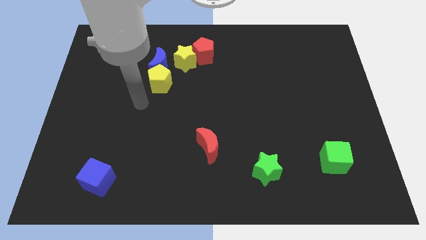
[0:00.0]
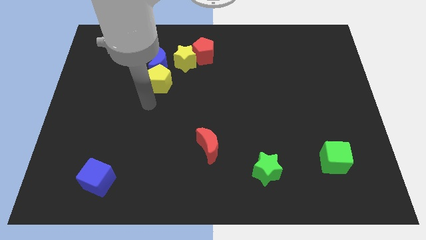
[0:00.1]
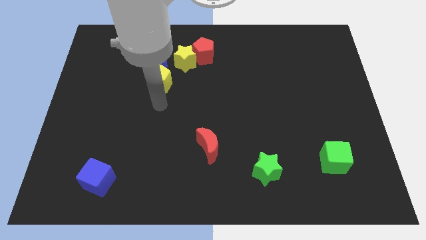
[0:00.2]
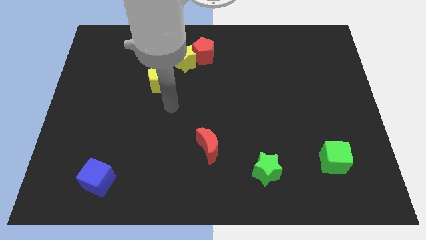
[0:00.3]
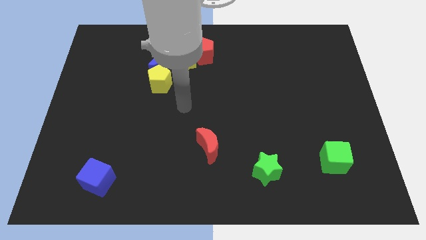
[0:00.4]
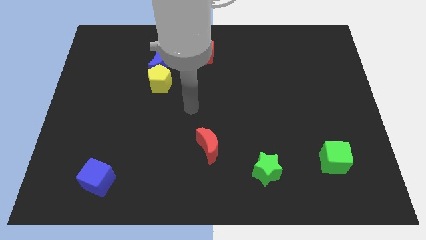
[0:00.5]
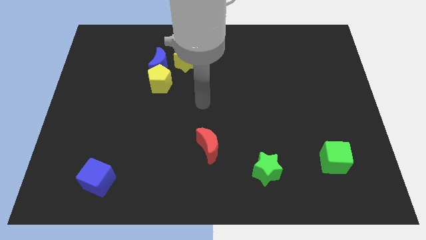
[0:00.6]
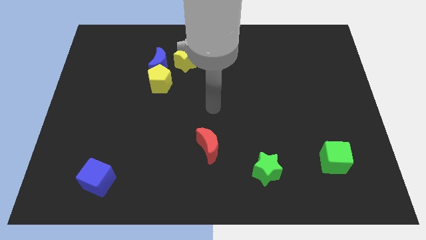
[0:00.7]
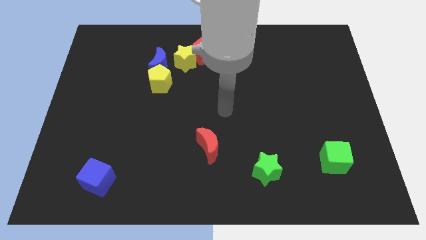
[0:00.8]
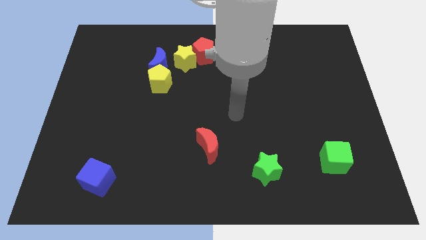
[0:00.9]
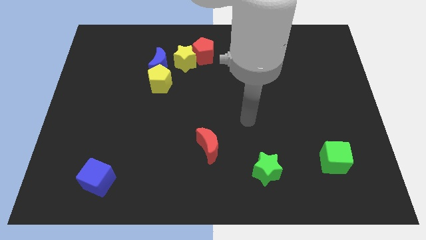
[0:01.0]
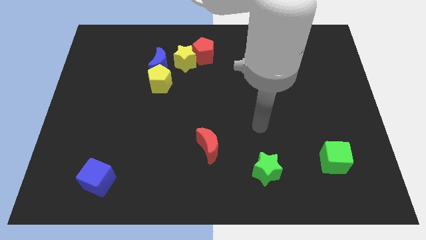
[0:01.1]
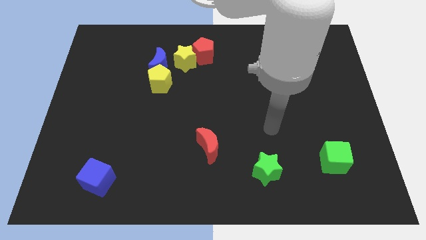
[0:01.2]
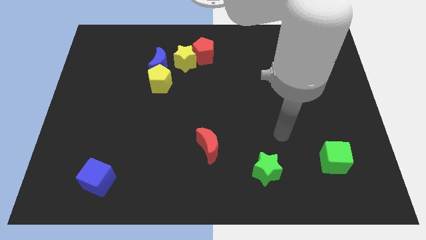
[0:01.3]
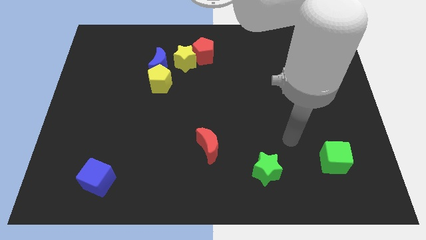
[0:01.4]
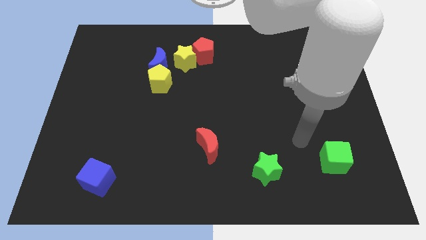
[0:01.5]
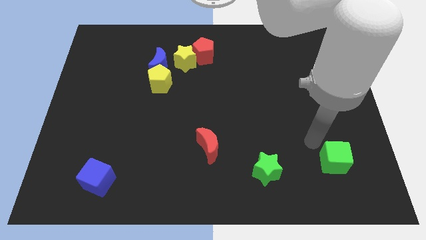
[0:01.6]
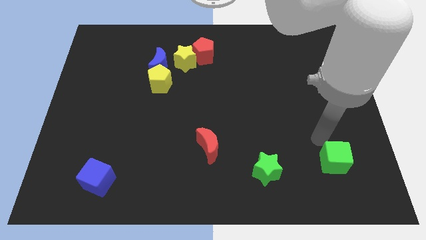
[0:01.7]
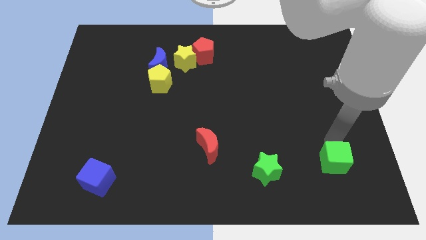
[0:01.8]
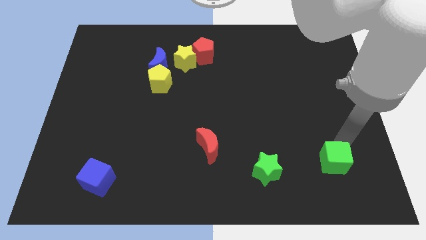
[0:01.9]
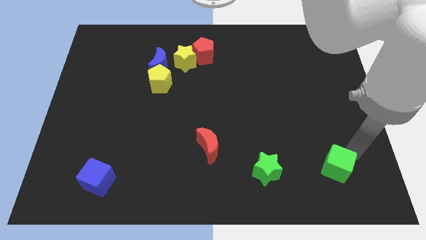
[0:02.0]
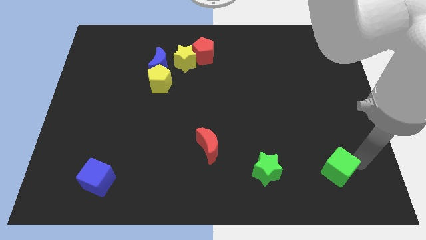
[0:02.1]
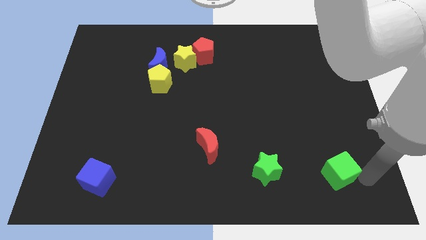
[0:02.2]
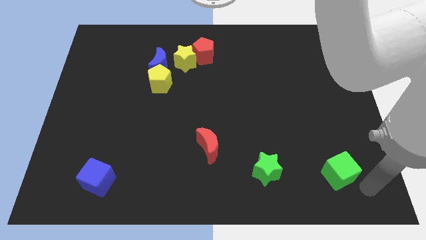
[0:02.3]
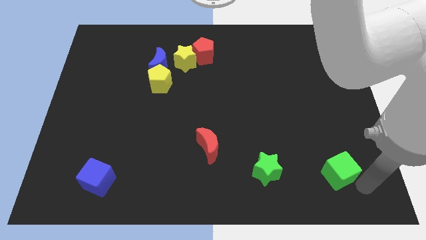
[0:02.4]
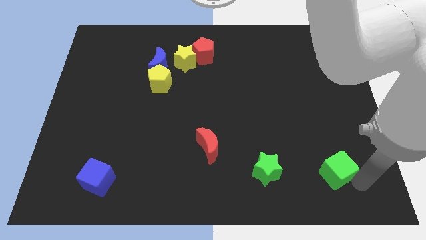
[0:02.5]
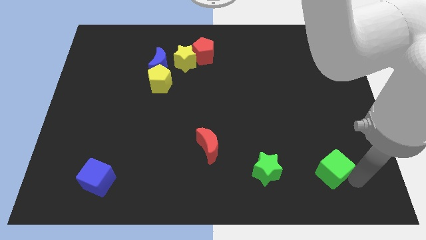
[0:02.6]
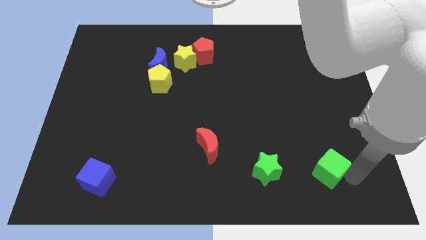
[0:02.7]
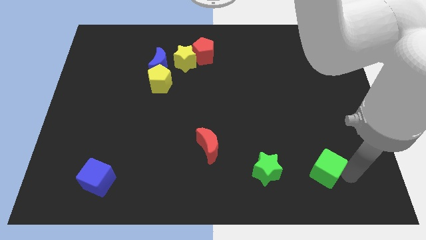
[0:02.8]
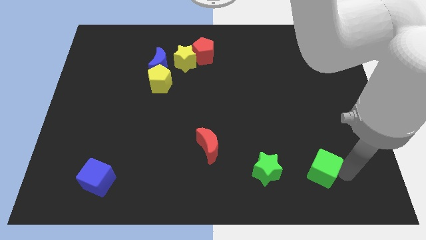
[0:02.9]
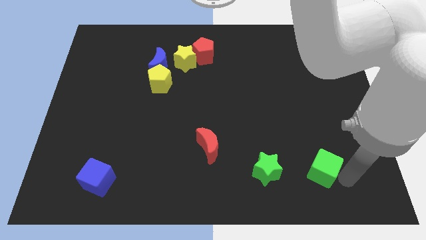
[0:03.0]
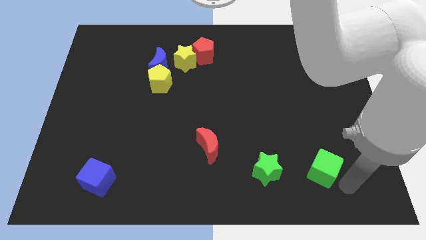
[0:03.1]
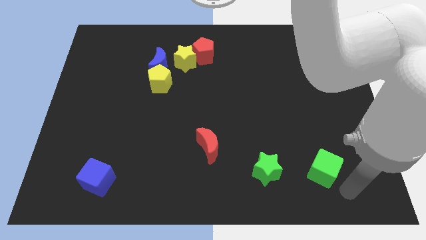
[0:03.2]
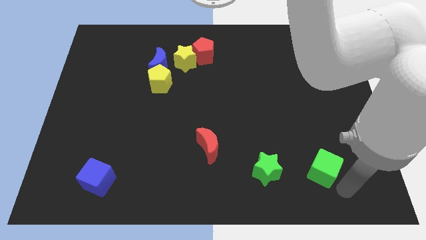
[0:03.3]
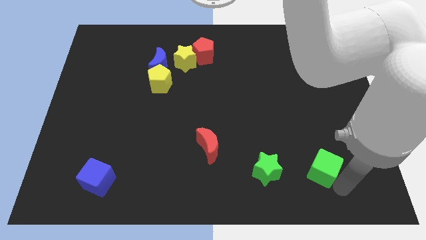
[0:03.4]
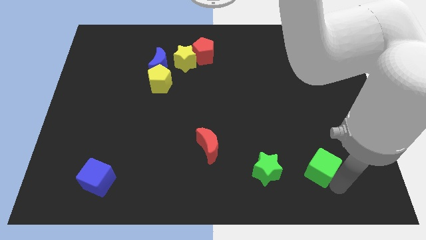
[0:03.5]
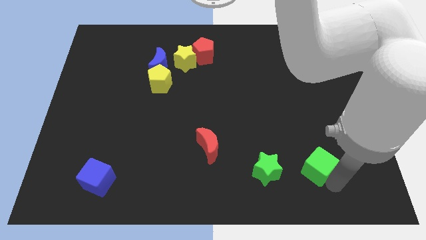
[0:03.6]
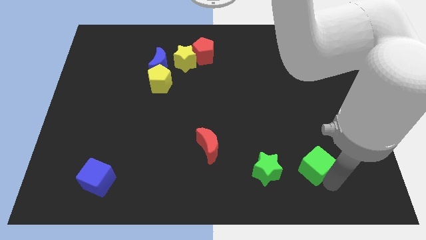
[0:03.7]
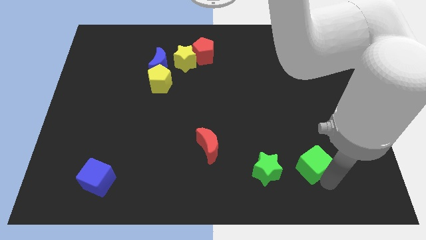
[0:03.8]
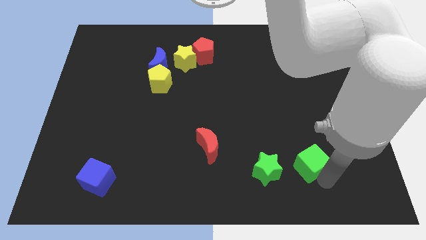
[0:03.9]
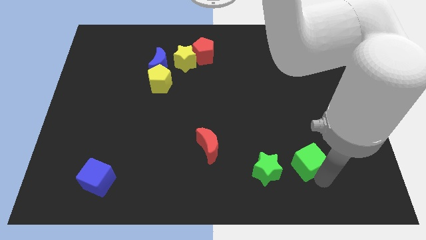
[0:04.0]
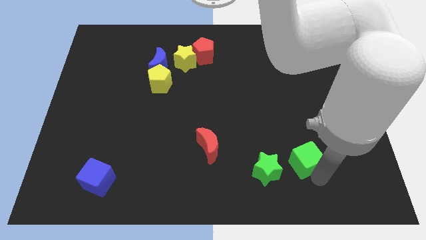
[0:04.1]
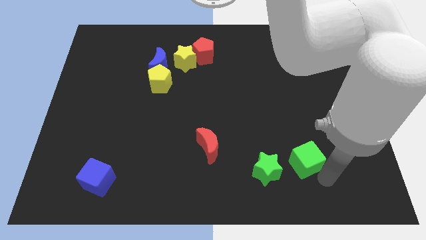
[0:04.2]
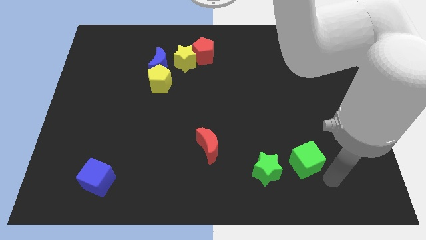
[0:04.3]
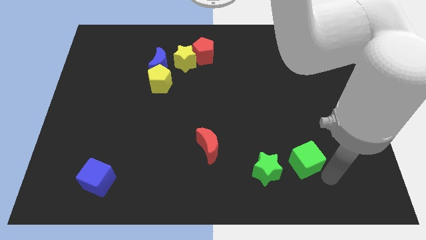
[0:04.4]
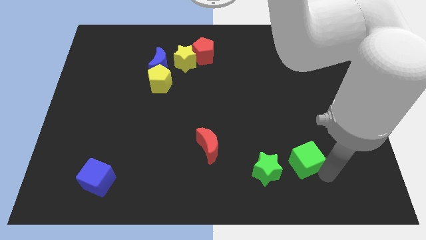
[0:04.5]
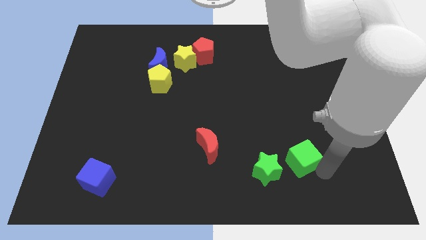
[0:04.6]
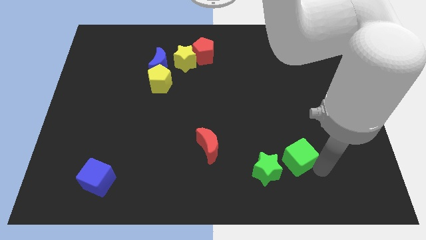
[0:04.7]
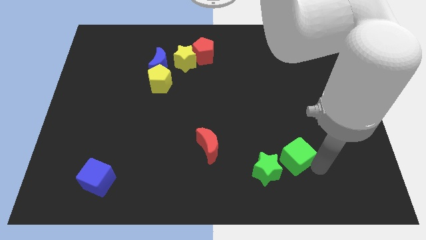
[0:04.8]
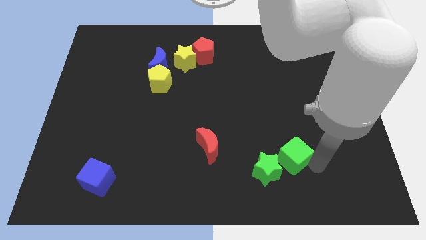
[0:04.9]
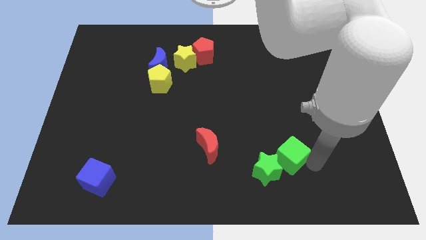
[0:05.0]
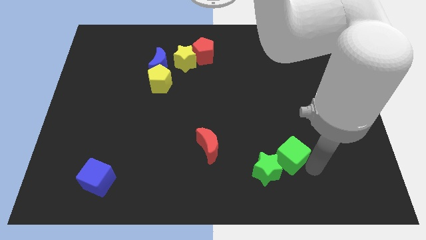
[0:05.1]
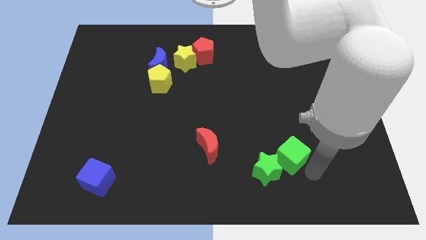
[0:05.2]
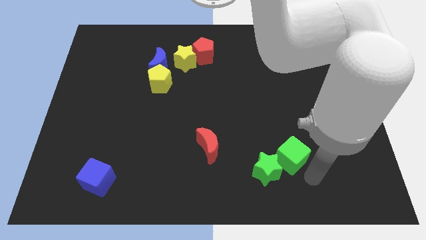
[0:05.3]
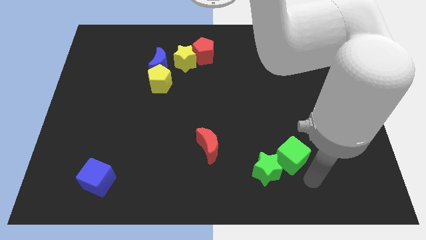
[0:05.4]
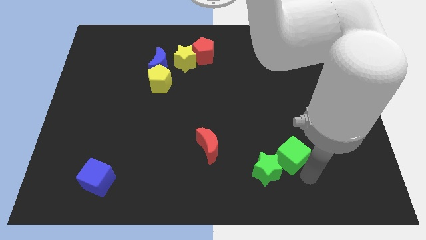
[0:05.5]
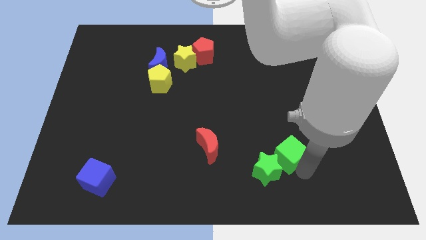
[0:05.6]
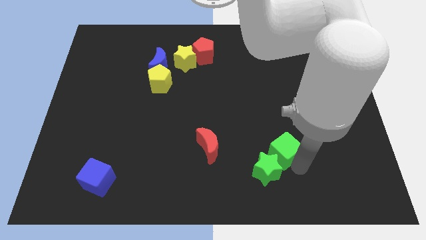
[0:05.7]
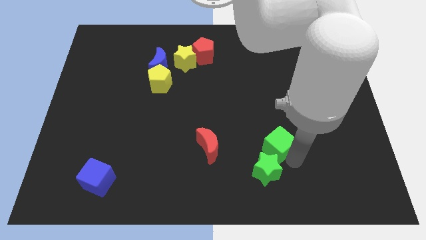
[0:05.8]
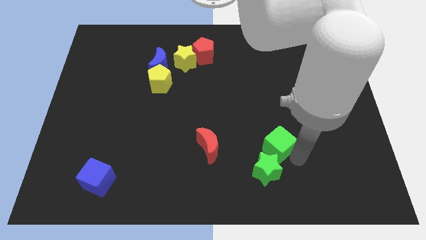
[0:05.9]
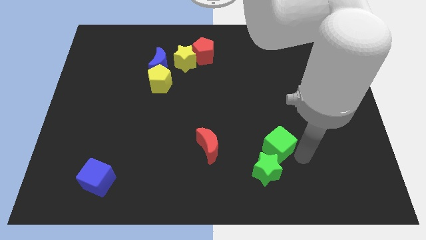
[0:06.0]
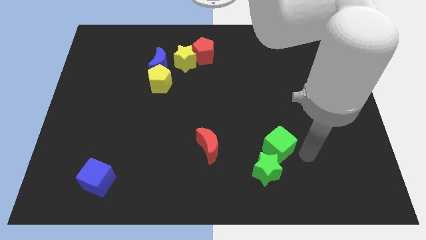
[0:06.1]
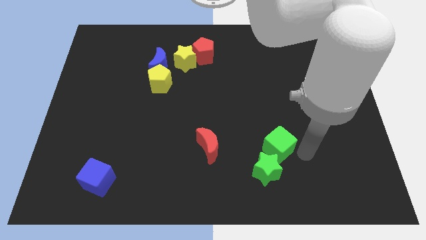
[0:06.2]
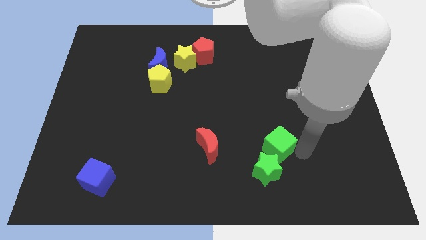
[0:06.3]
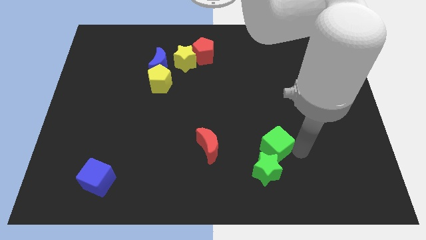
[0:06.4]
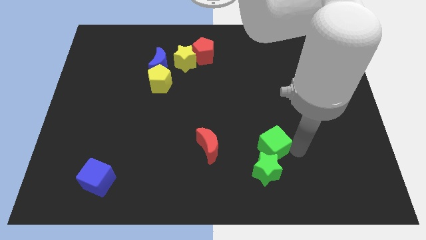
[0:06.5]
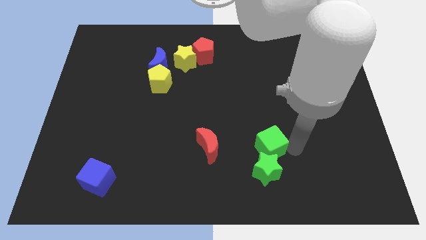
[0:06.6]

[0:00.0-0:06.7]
put the green cube to the top left side of the green star

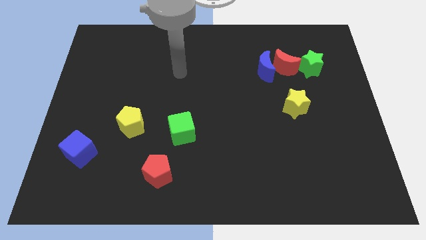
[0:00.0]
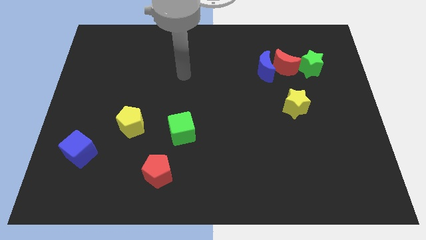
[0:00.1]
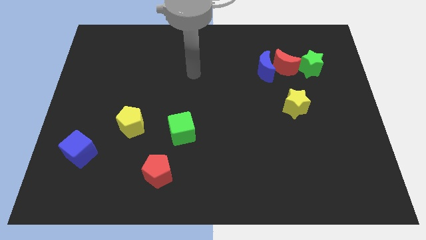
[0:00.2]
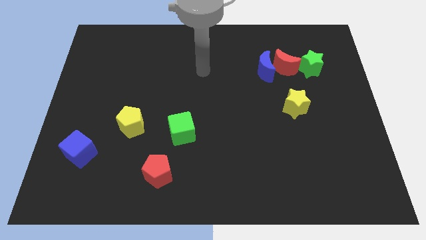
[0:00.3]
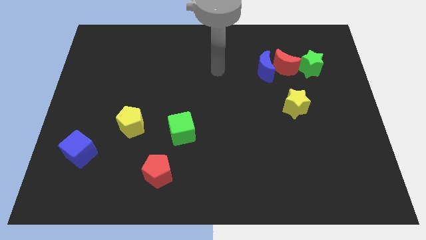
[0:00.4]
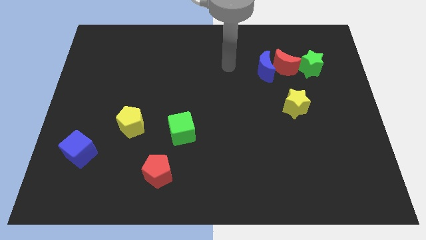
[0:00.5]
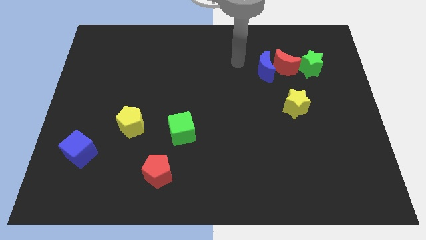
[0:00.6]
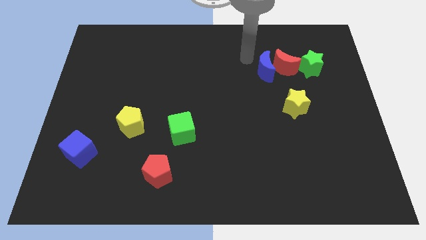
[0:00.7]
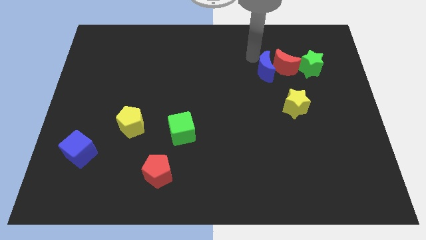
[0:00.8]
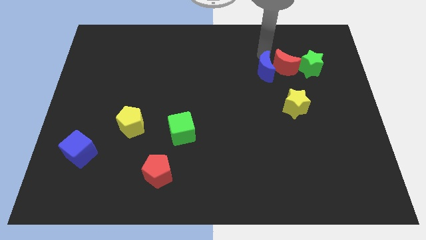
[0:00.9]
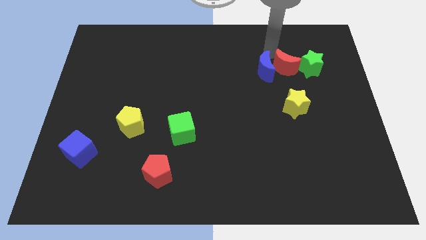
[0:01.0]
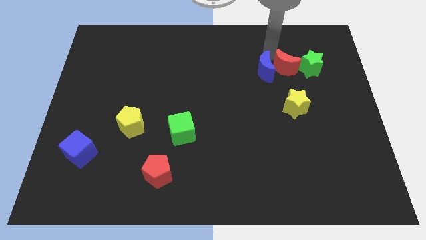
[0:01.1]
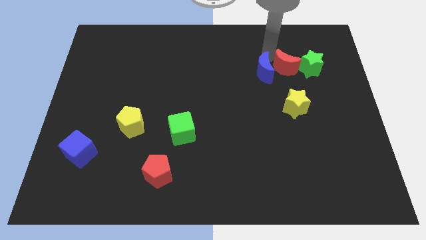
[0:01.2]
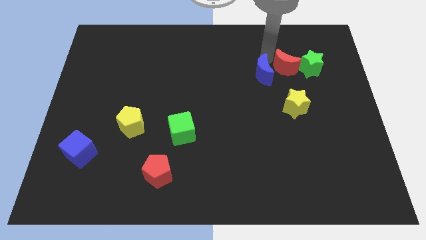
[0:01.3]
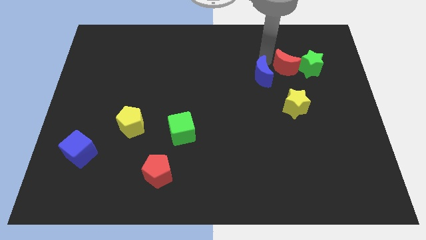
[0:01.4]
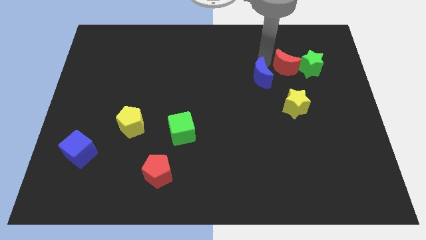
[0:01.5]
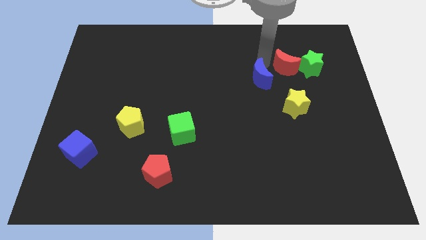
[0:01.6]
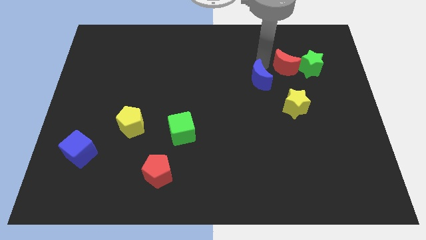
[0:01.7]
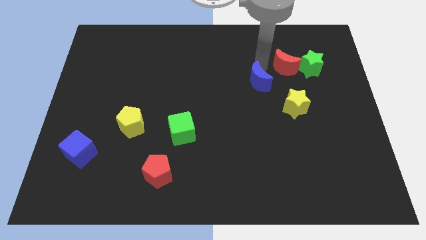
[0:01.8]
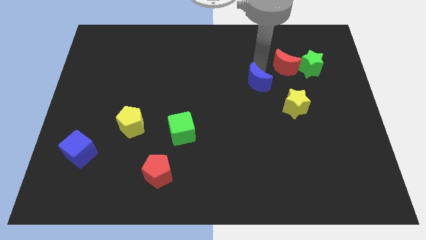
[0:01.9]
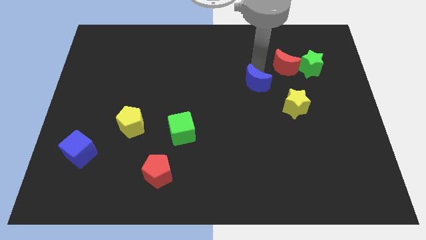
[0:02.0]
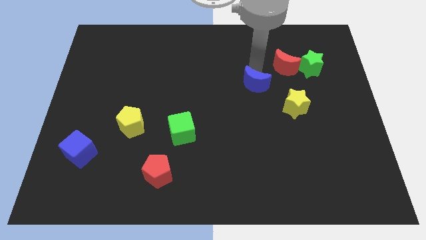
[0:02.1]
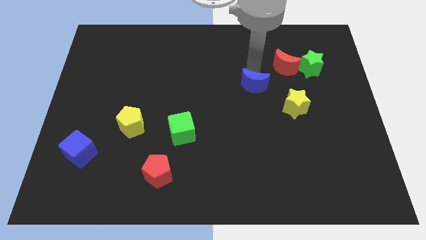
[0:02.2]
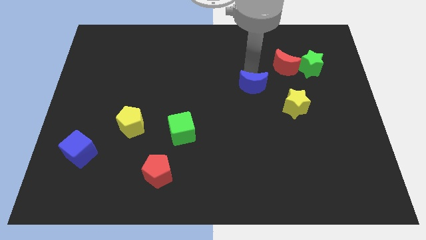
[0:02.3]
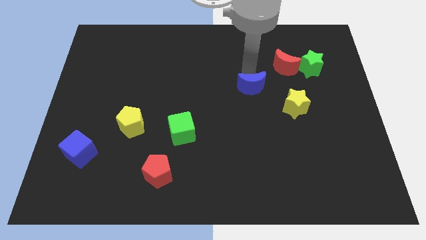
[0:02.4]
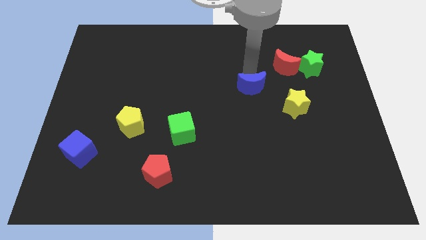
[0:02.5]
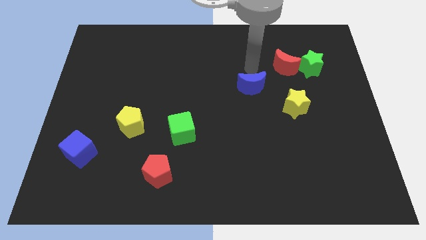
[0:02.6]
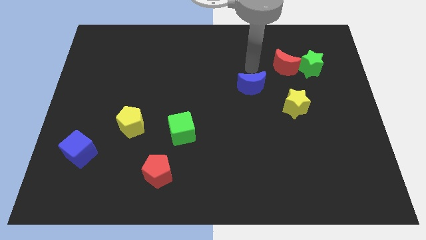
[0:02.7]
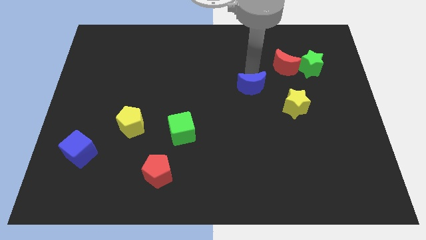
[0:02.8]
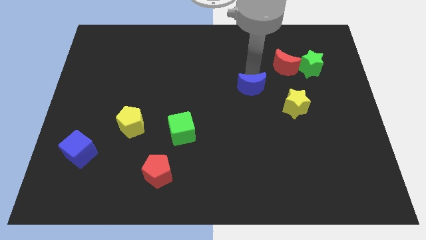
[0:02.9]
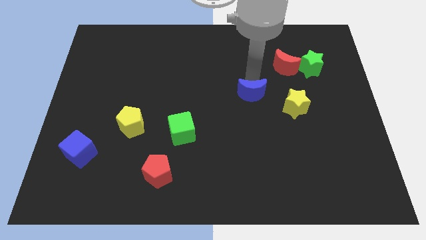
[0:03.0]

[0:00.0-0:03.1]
put the blue moon just left of the yellow star
